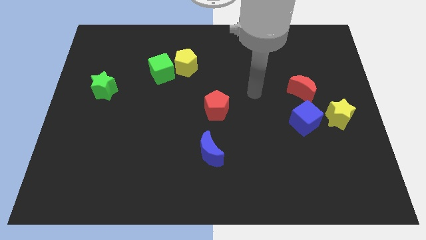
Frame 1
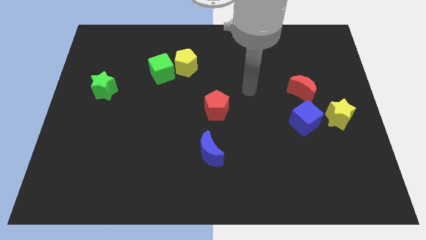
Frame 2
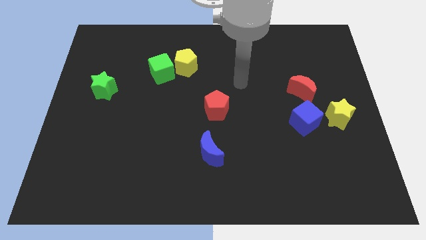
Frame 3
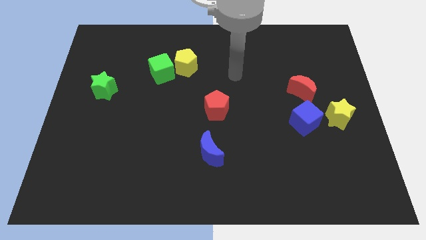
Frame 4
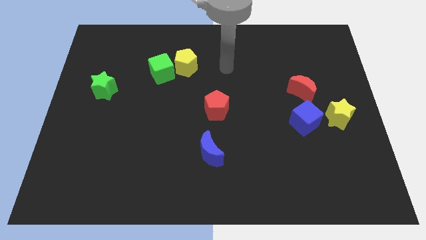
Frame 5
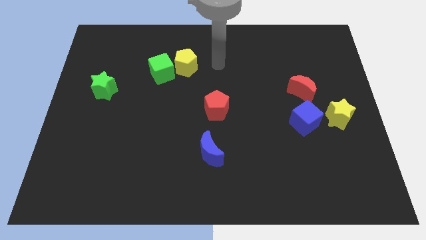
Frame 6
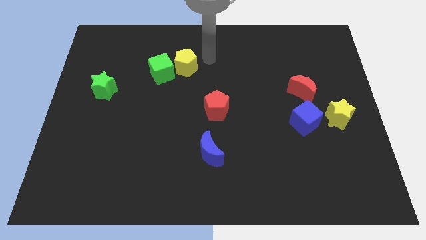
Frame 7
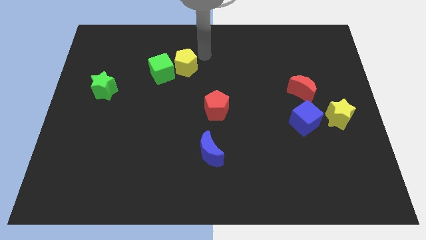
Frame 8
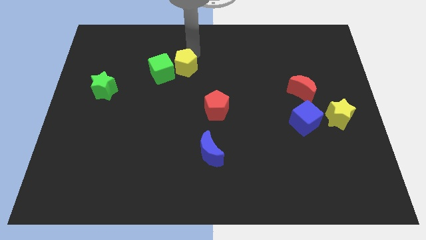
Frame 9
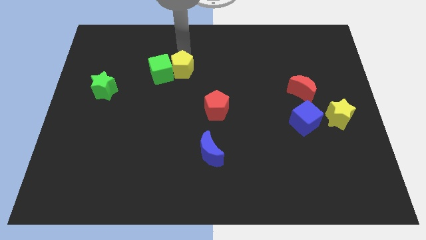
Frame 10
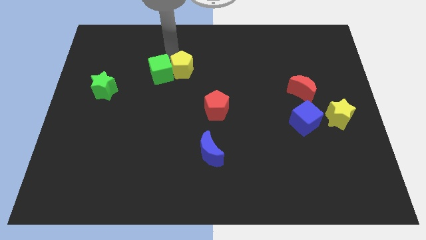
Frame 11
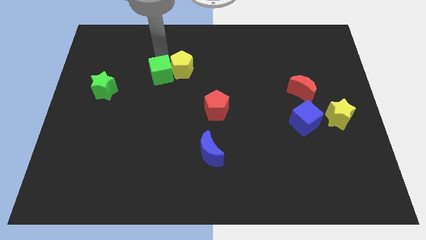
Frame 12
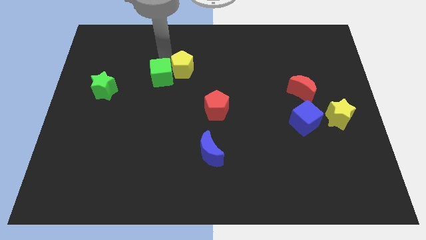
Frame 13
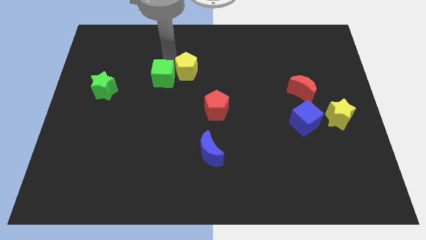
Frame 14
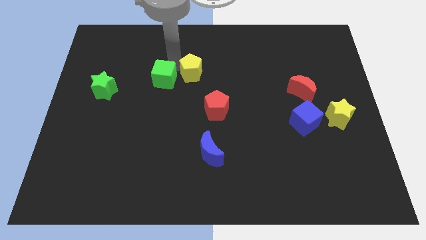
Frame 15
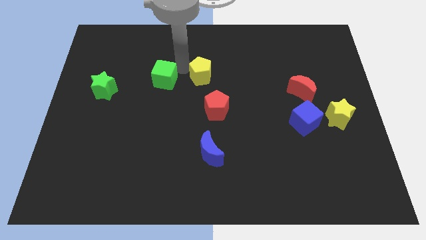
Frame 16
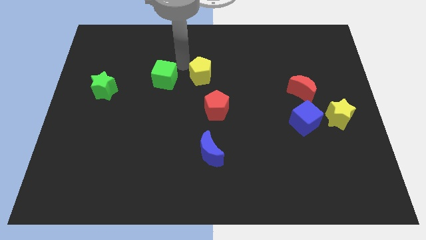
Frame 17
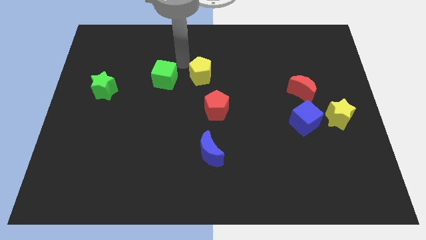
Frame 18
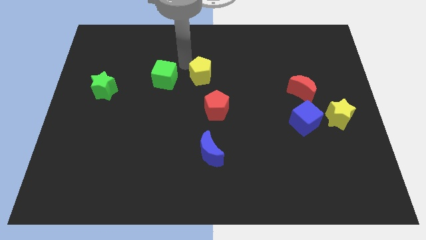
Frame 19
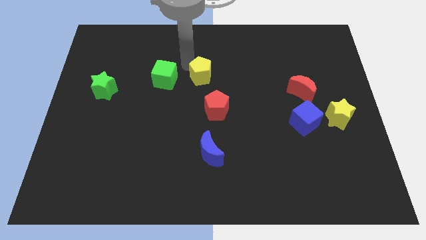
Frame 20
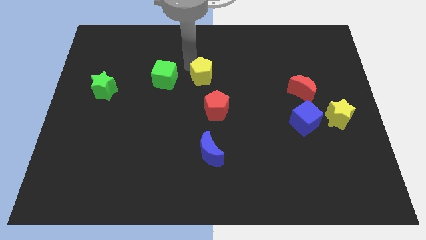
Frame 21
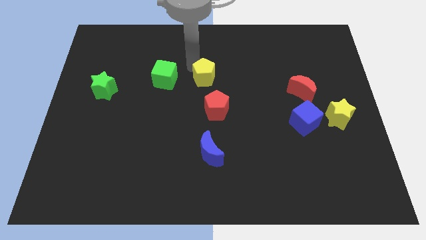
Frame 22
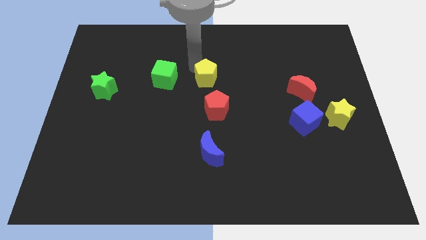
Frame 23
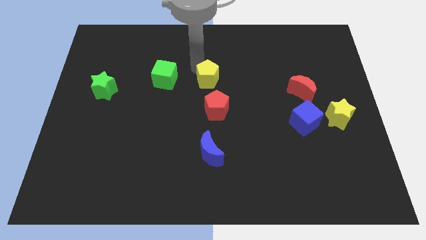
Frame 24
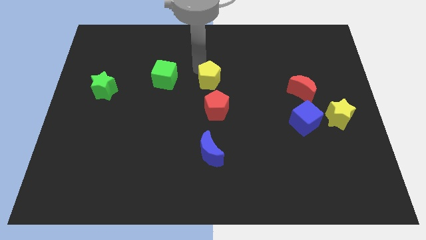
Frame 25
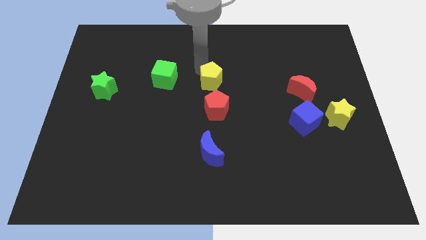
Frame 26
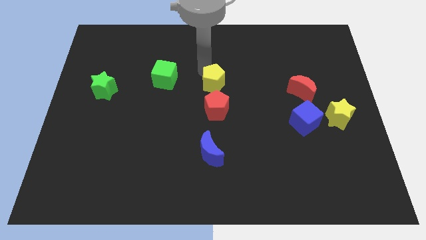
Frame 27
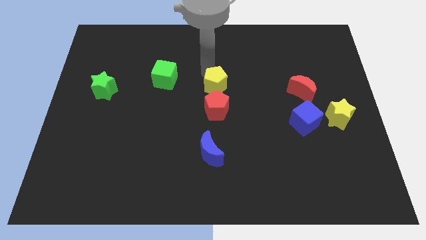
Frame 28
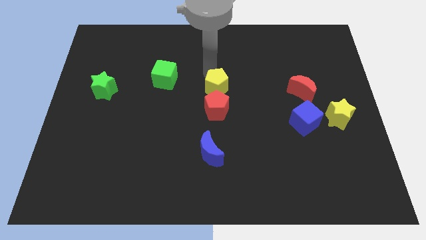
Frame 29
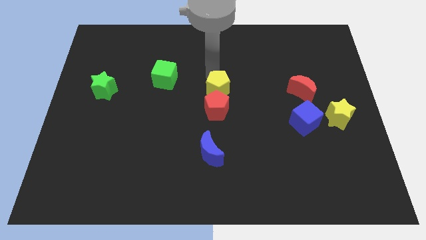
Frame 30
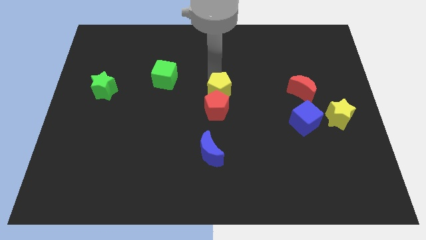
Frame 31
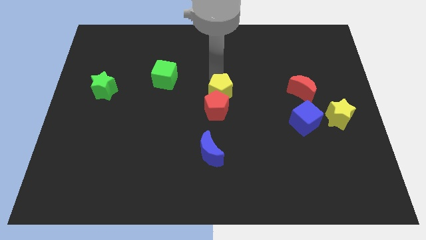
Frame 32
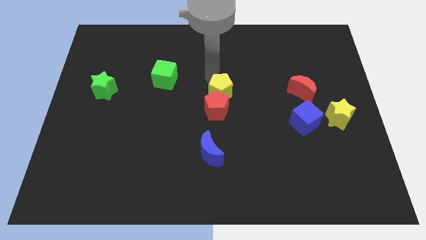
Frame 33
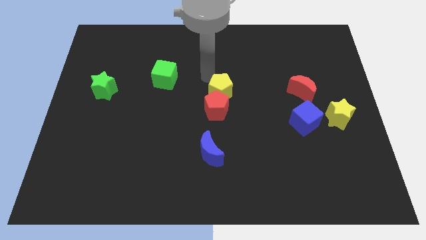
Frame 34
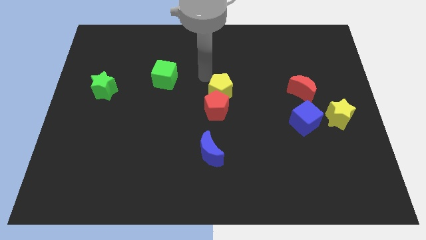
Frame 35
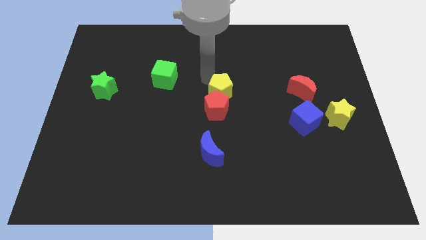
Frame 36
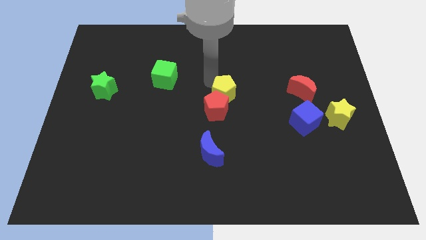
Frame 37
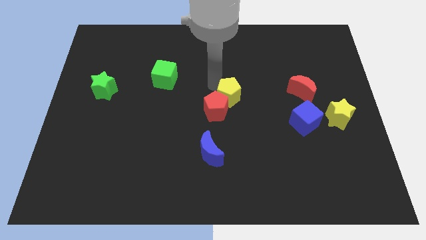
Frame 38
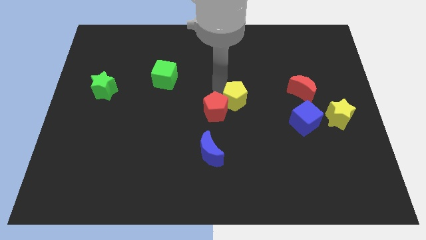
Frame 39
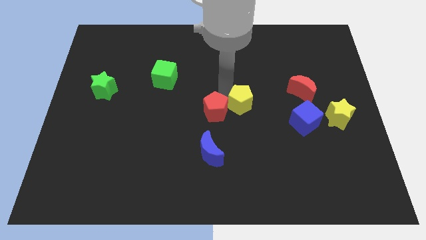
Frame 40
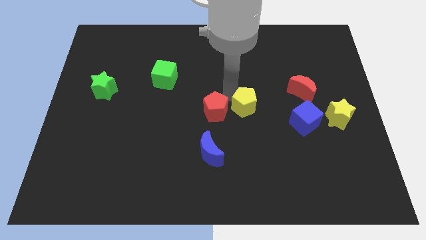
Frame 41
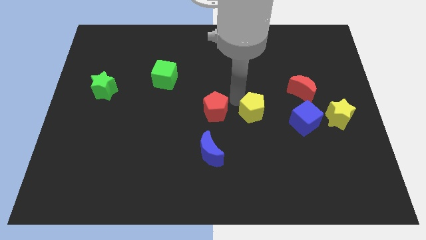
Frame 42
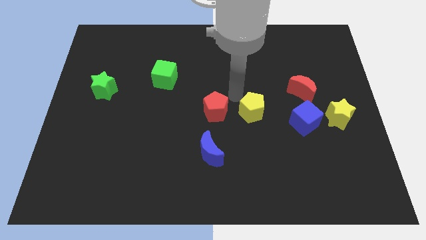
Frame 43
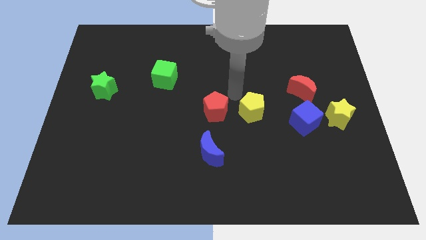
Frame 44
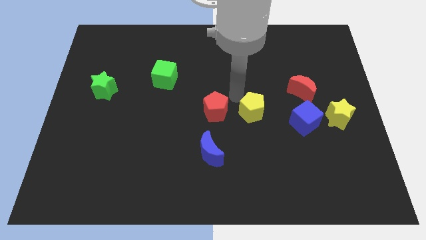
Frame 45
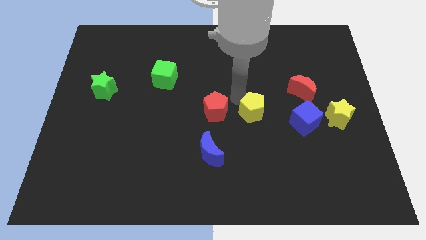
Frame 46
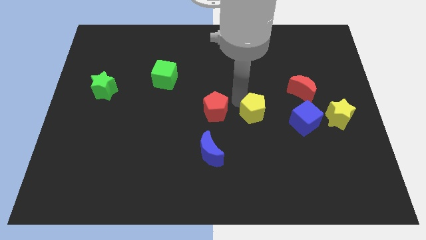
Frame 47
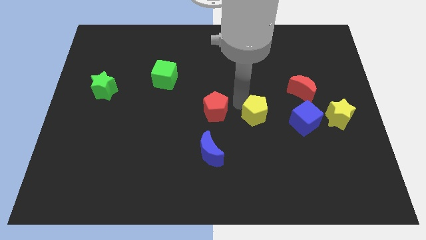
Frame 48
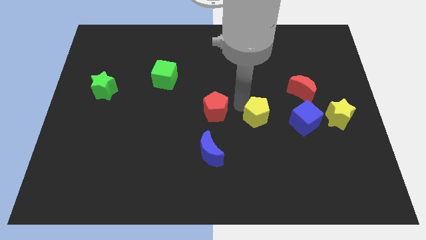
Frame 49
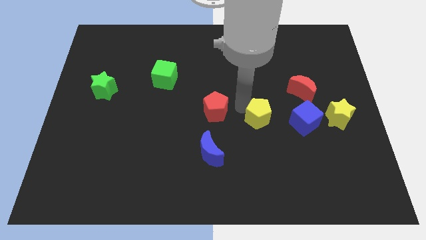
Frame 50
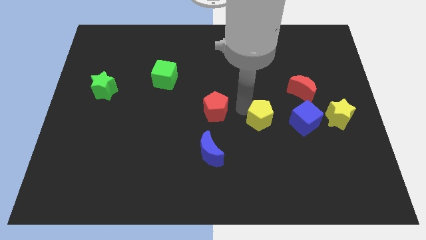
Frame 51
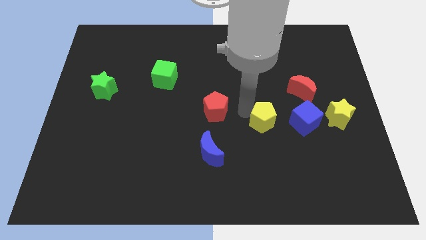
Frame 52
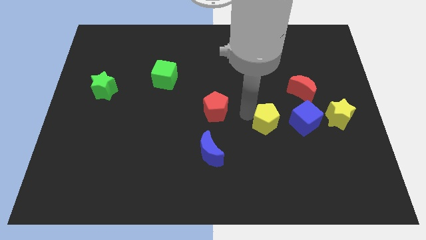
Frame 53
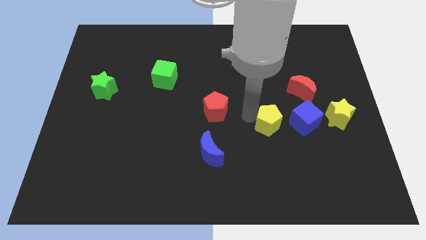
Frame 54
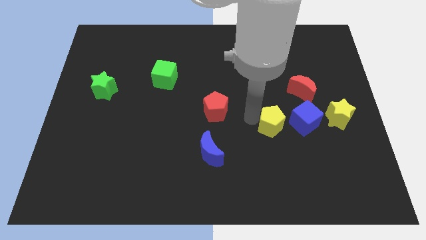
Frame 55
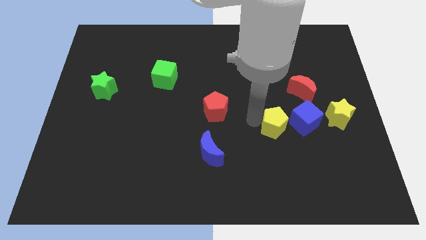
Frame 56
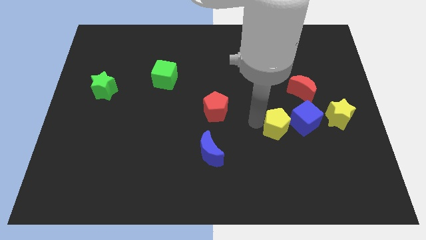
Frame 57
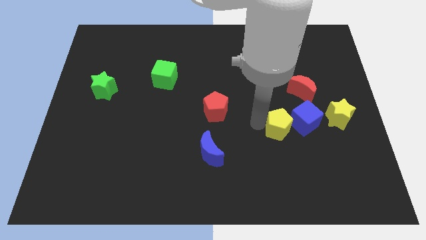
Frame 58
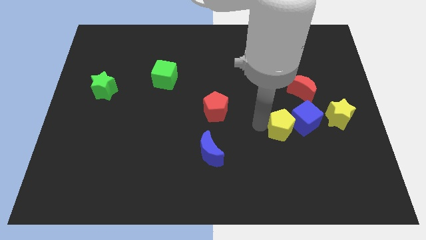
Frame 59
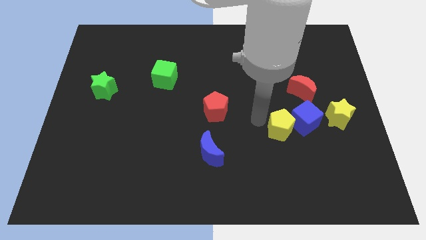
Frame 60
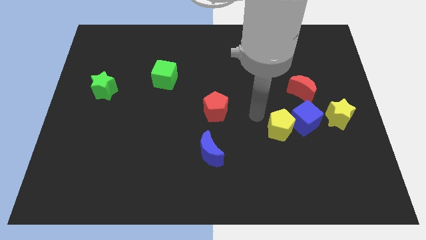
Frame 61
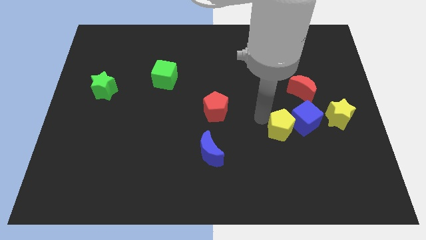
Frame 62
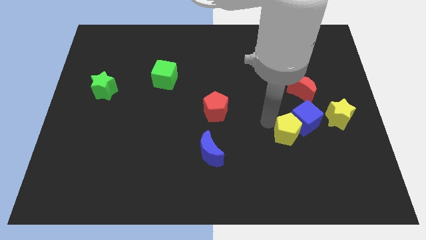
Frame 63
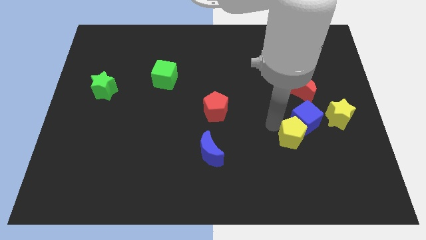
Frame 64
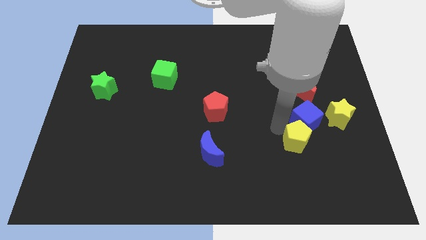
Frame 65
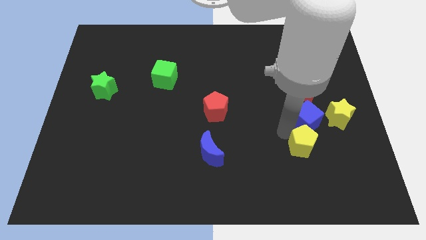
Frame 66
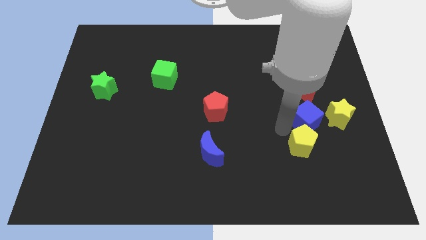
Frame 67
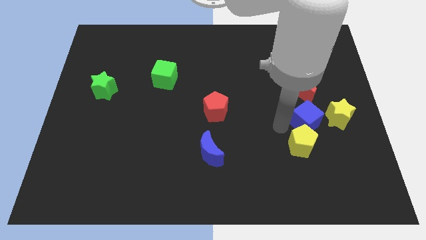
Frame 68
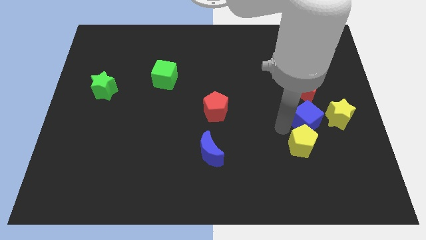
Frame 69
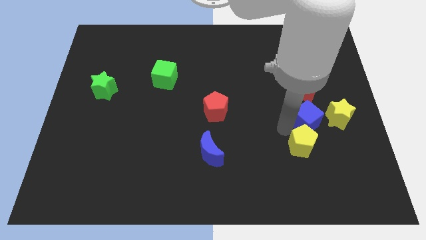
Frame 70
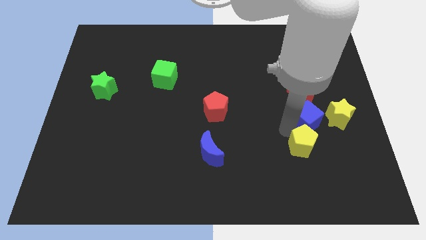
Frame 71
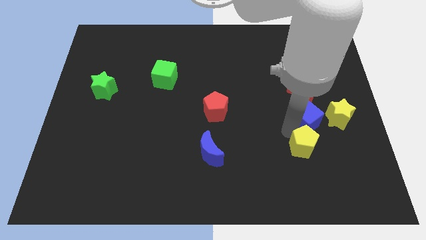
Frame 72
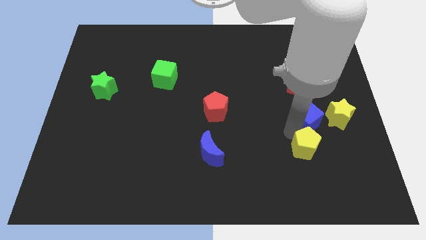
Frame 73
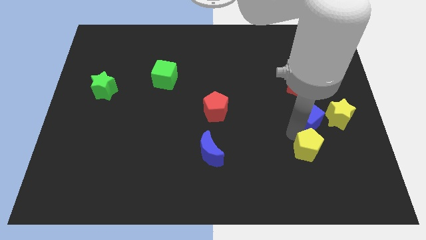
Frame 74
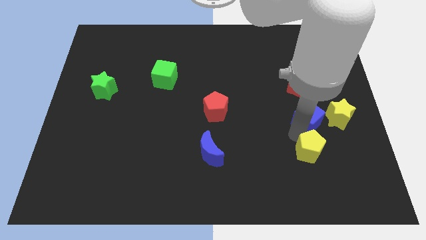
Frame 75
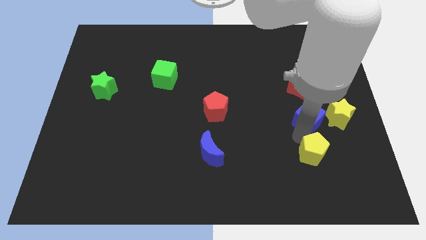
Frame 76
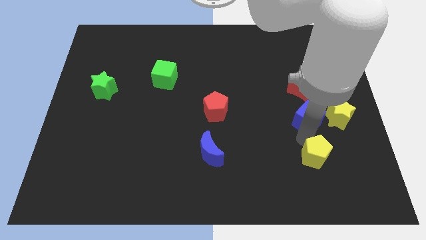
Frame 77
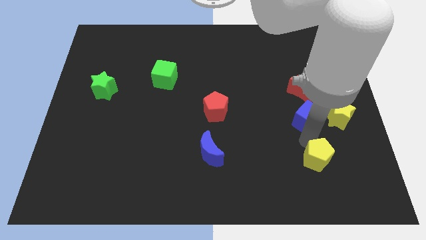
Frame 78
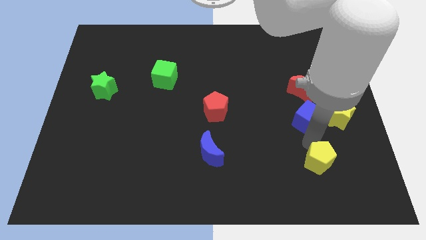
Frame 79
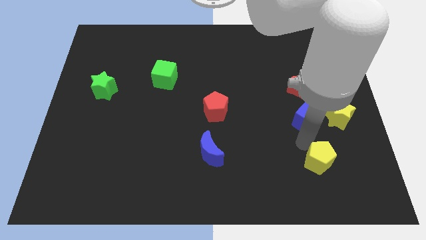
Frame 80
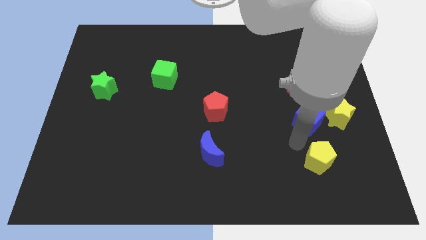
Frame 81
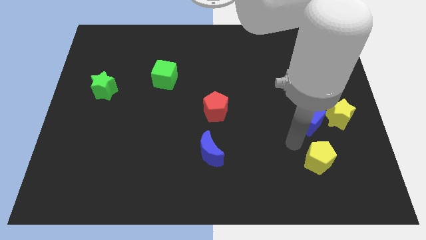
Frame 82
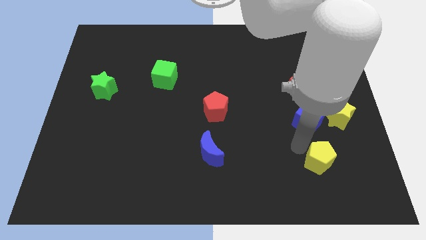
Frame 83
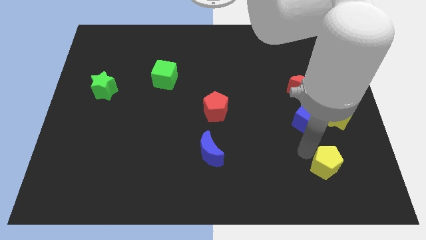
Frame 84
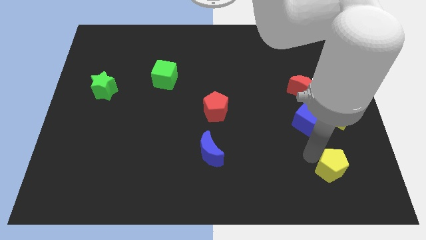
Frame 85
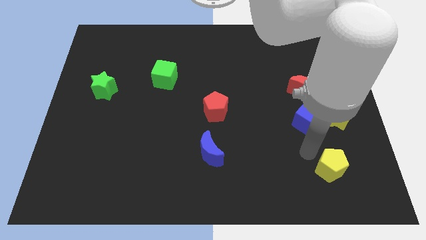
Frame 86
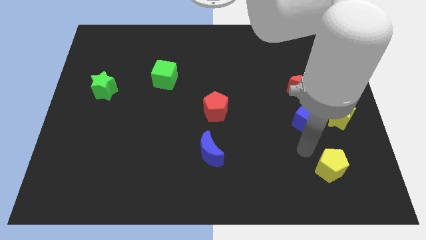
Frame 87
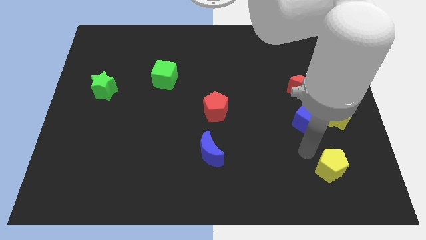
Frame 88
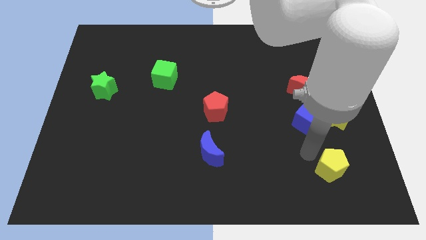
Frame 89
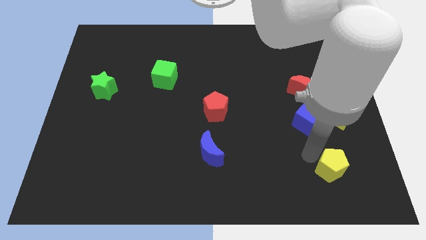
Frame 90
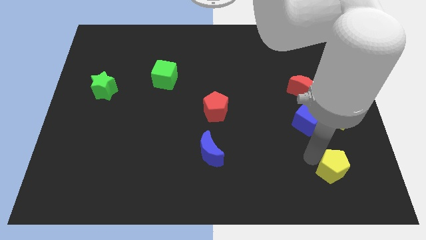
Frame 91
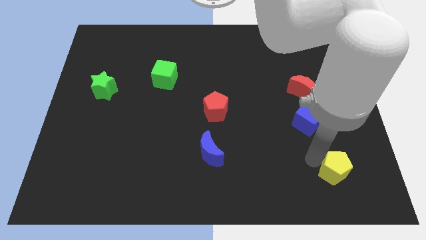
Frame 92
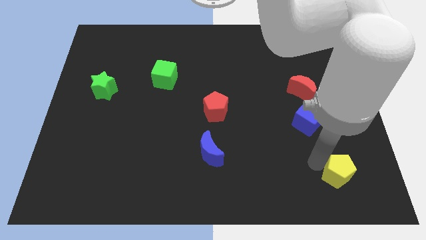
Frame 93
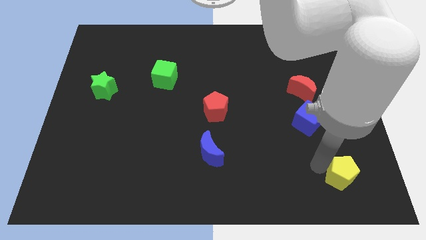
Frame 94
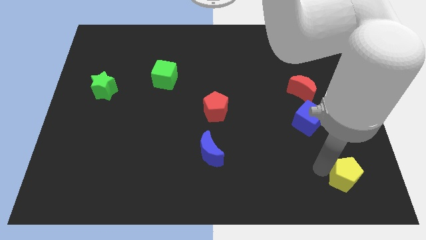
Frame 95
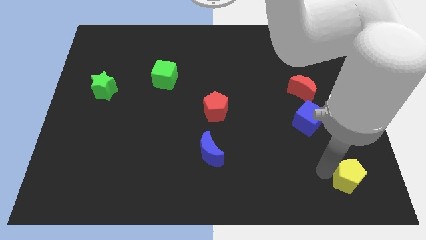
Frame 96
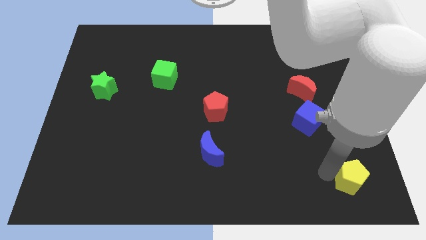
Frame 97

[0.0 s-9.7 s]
push the yellow pentagon to the lower right corner
